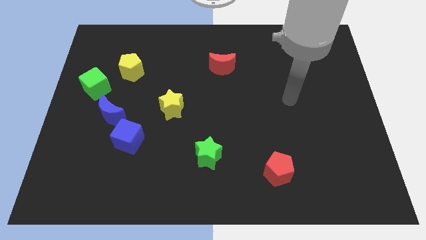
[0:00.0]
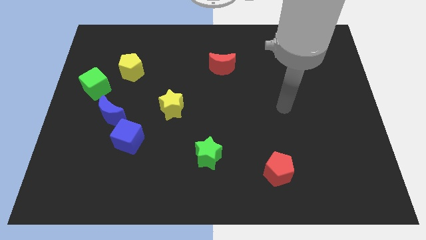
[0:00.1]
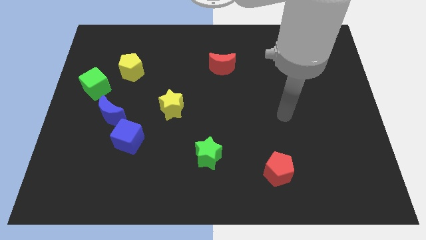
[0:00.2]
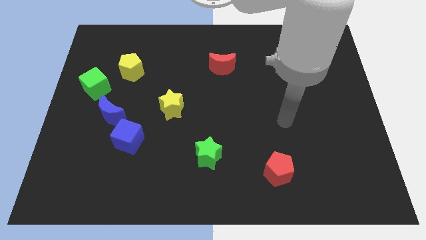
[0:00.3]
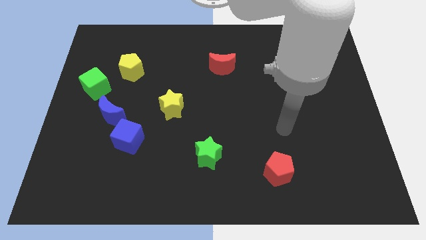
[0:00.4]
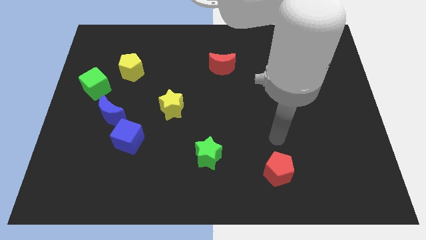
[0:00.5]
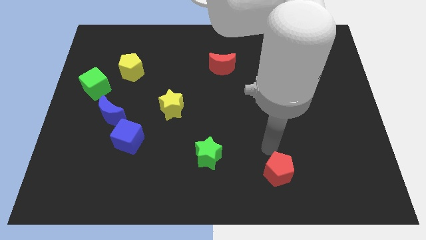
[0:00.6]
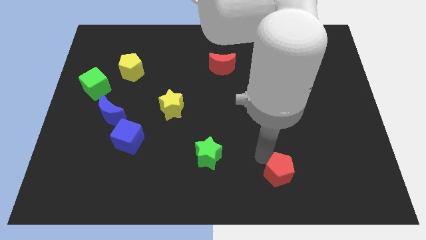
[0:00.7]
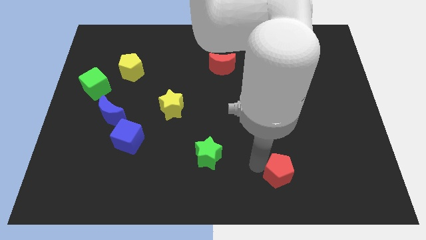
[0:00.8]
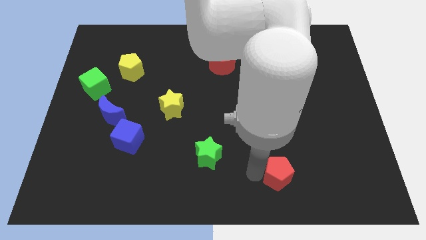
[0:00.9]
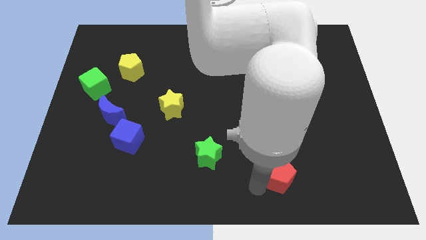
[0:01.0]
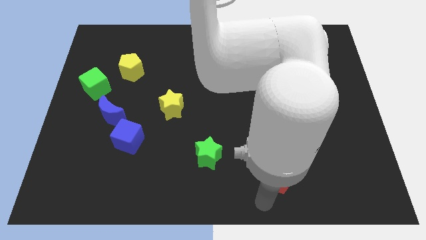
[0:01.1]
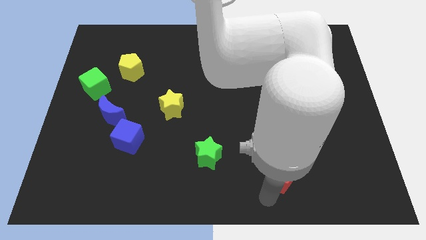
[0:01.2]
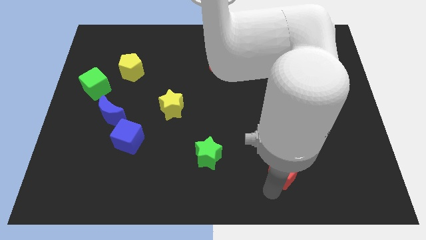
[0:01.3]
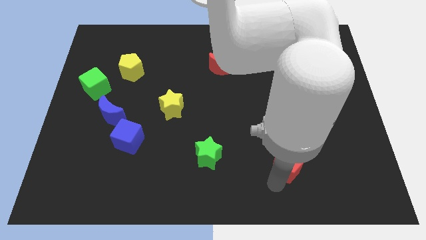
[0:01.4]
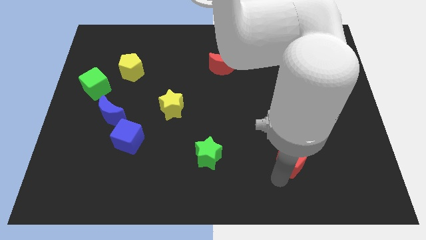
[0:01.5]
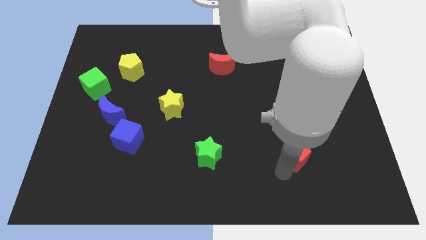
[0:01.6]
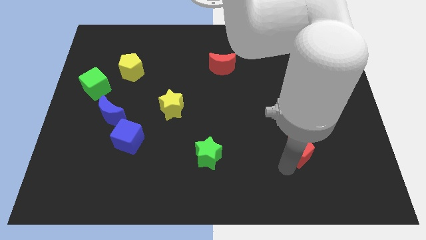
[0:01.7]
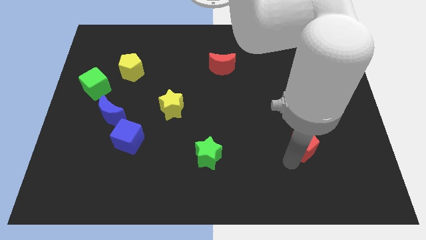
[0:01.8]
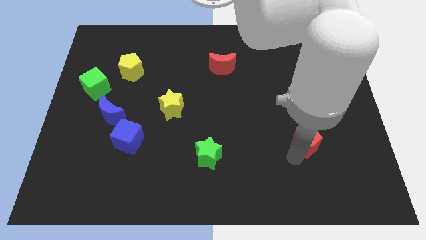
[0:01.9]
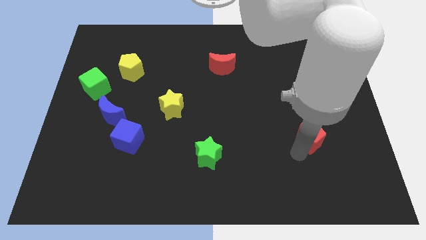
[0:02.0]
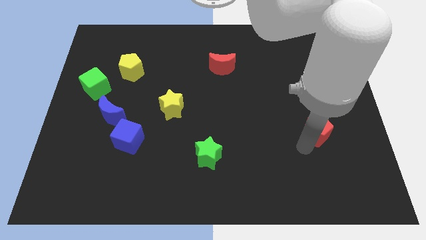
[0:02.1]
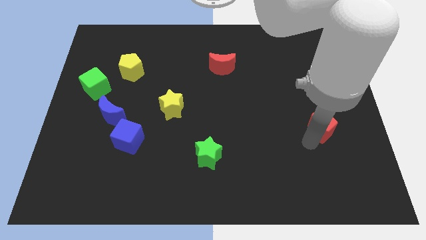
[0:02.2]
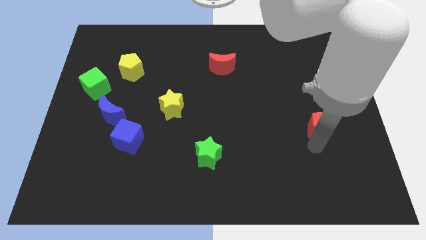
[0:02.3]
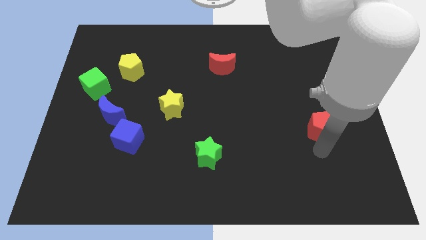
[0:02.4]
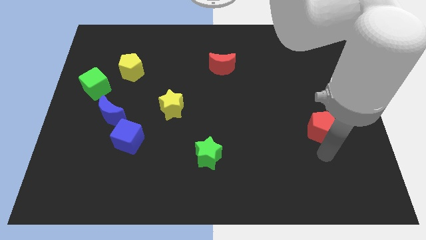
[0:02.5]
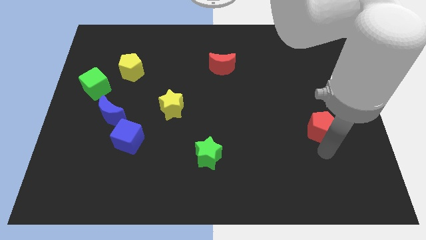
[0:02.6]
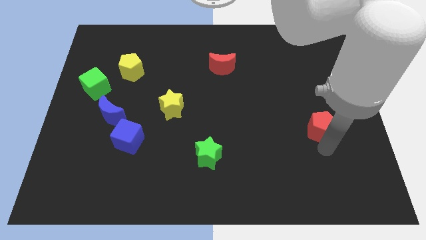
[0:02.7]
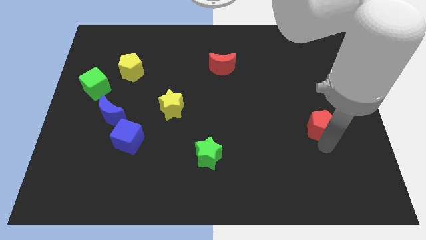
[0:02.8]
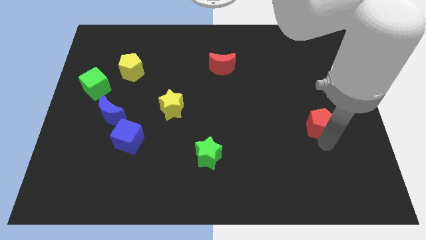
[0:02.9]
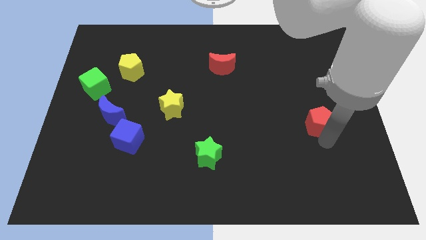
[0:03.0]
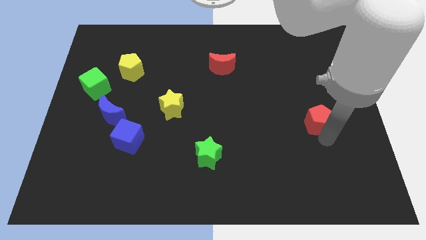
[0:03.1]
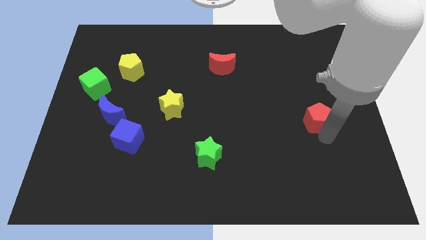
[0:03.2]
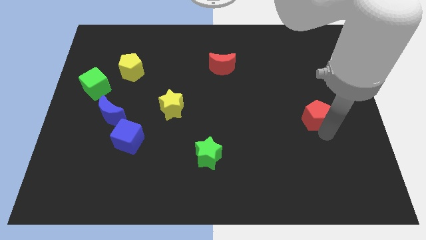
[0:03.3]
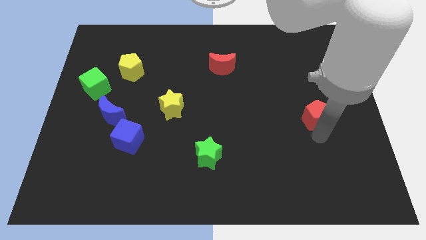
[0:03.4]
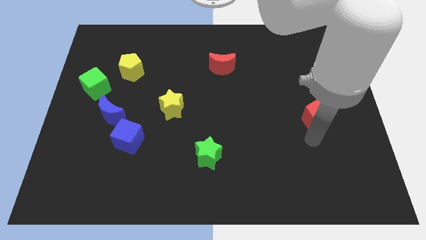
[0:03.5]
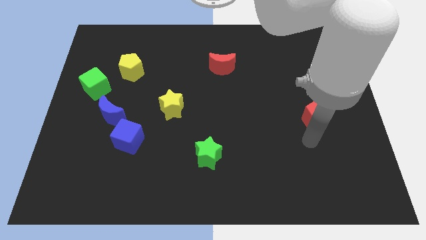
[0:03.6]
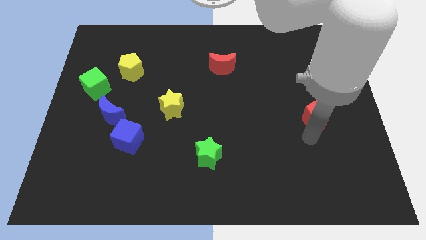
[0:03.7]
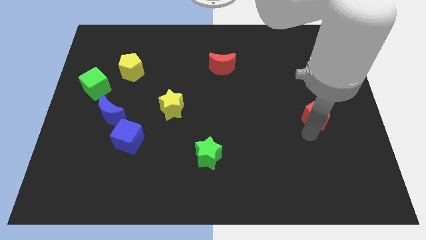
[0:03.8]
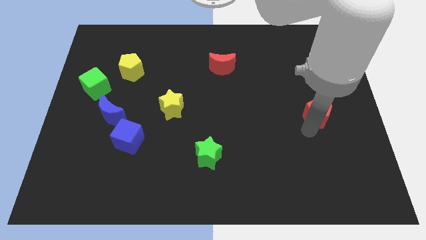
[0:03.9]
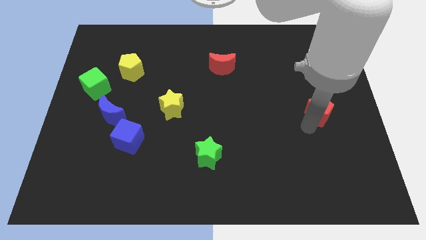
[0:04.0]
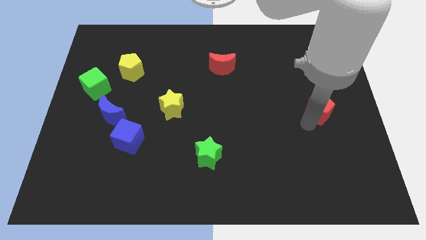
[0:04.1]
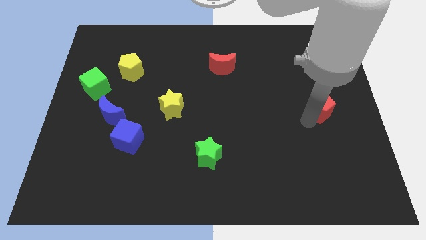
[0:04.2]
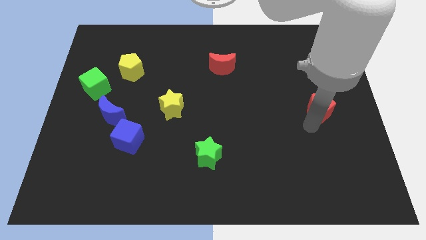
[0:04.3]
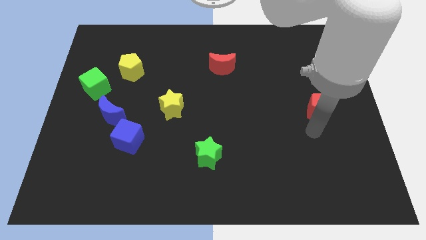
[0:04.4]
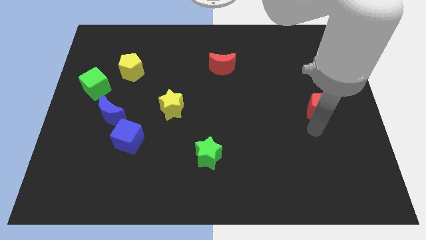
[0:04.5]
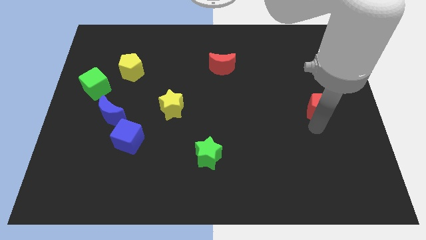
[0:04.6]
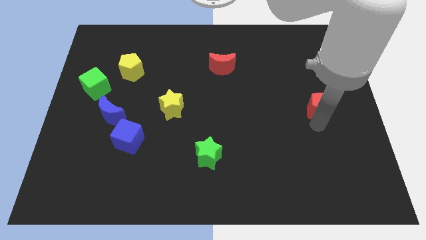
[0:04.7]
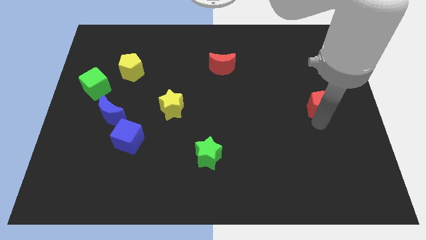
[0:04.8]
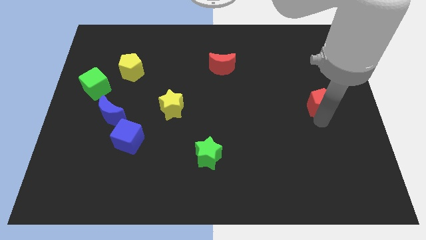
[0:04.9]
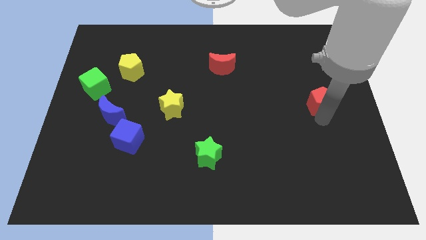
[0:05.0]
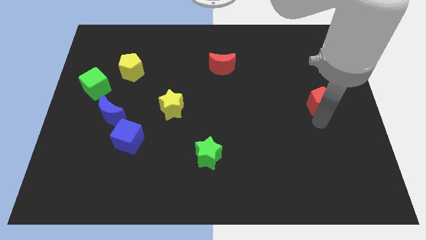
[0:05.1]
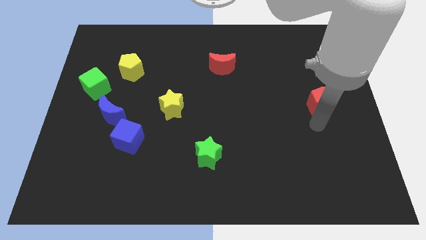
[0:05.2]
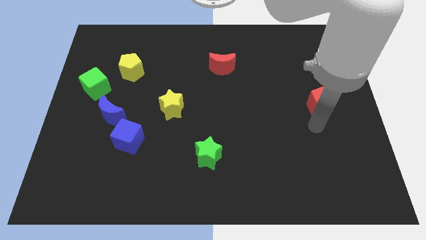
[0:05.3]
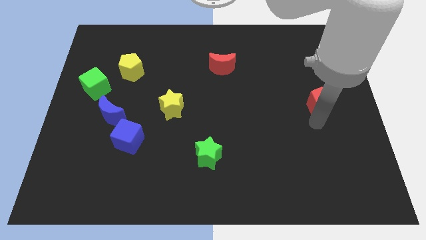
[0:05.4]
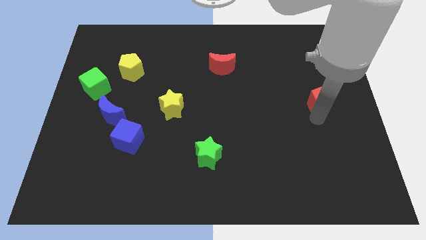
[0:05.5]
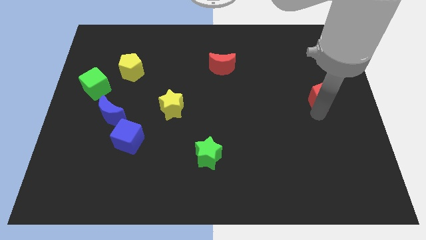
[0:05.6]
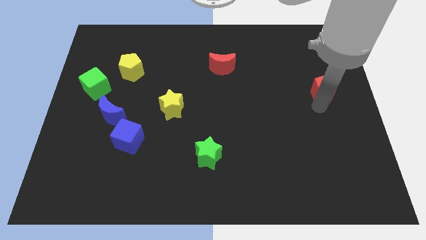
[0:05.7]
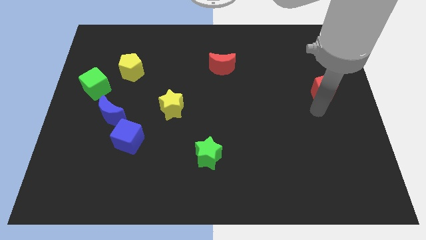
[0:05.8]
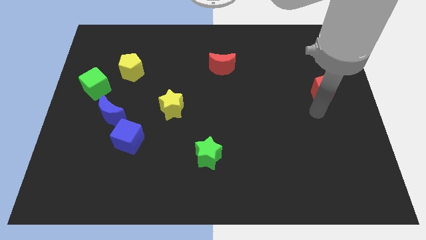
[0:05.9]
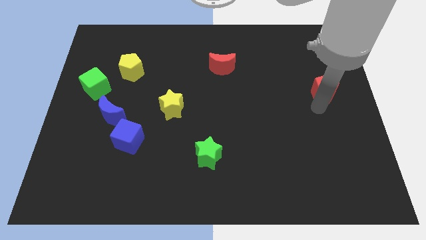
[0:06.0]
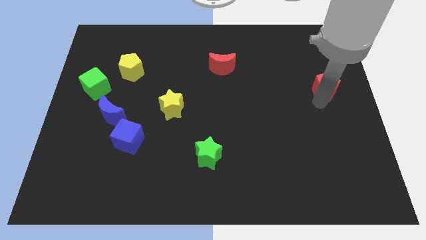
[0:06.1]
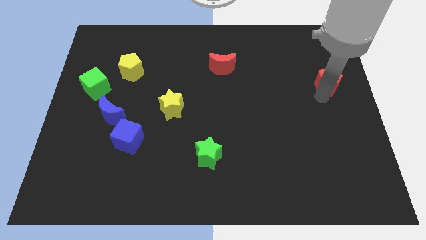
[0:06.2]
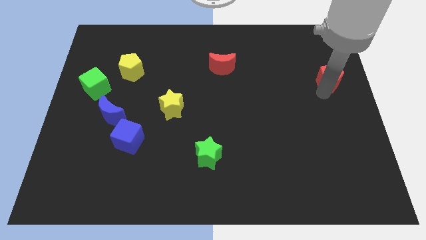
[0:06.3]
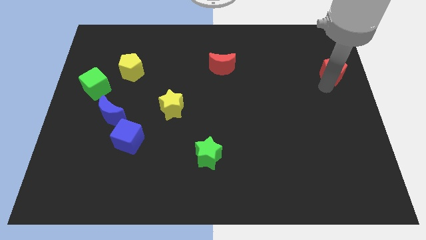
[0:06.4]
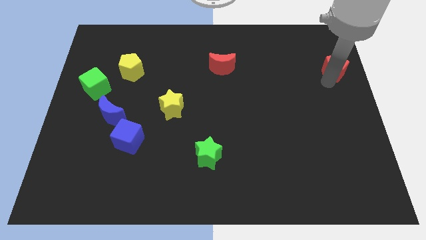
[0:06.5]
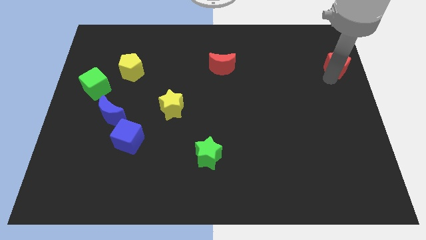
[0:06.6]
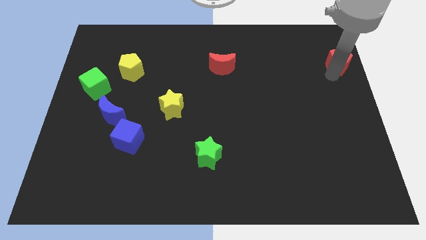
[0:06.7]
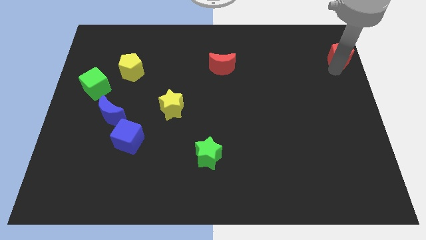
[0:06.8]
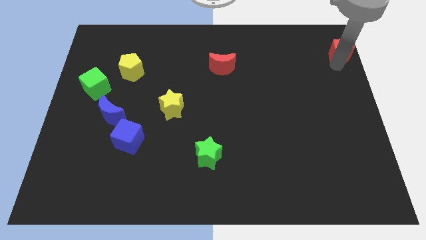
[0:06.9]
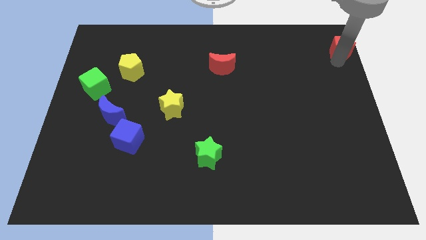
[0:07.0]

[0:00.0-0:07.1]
slide the red pentagon to the upper right corner

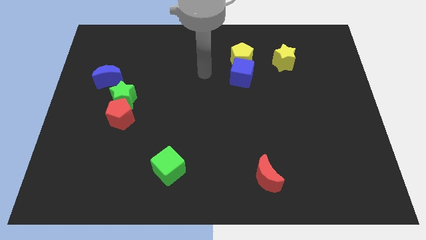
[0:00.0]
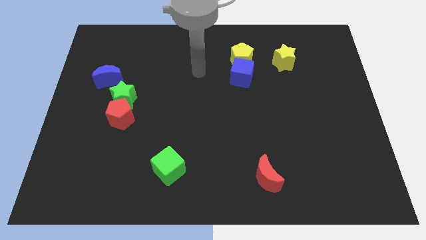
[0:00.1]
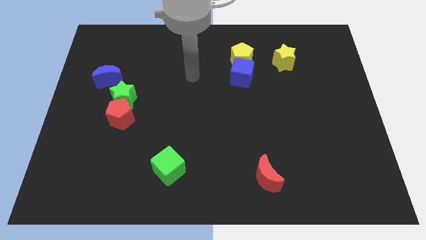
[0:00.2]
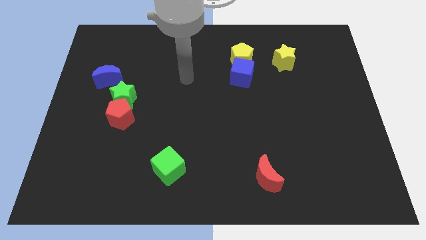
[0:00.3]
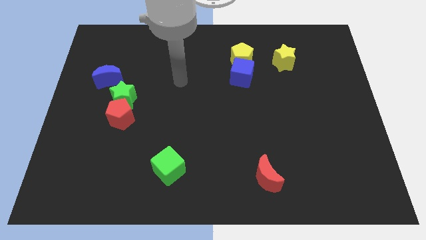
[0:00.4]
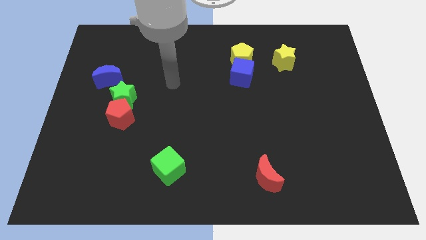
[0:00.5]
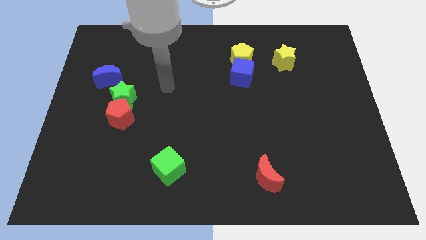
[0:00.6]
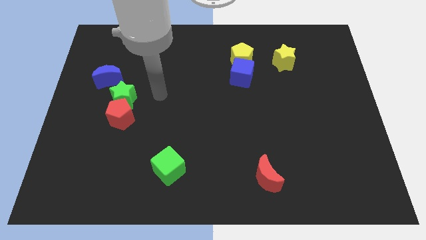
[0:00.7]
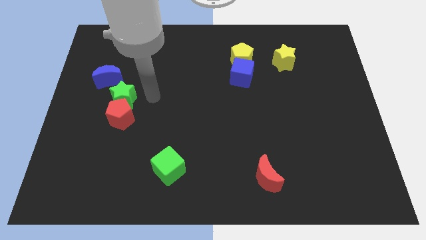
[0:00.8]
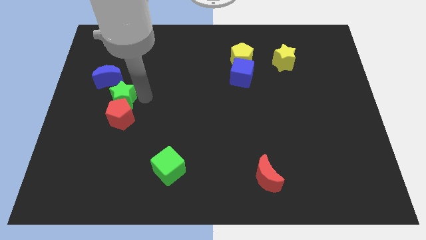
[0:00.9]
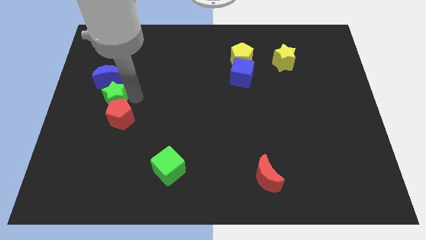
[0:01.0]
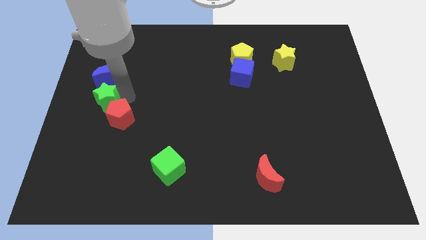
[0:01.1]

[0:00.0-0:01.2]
move the green star to the left side
